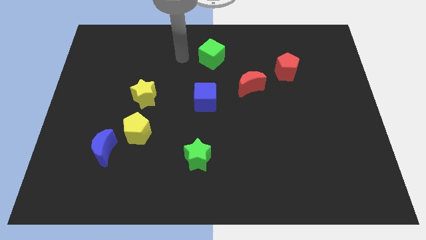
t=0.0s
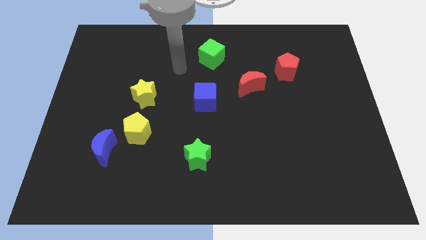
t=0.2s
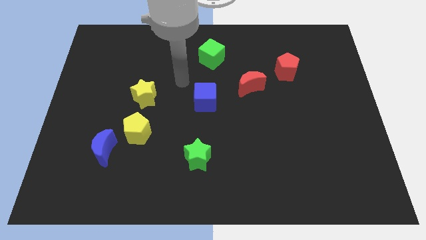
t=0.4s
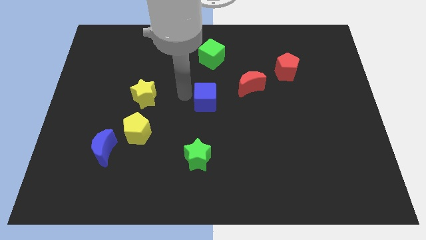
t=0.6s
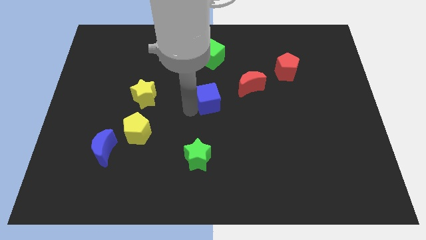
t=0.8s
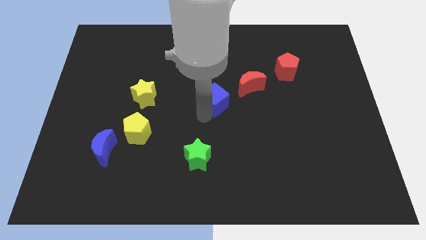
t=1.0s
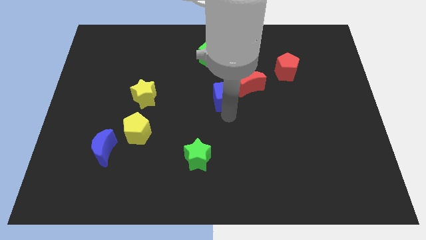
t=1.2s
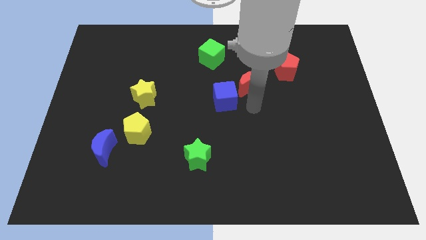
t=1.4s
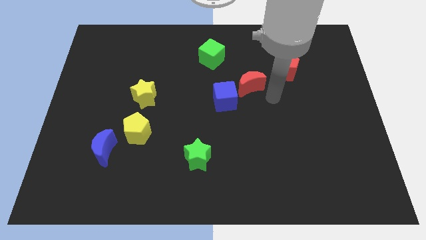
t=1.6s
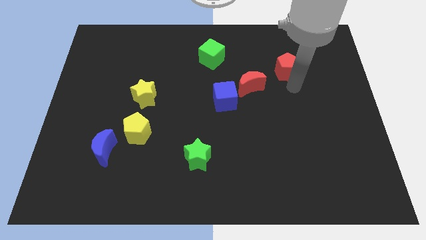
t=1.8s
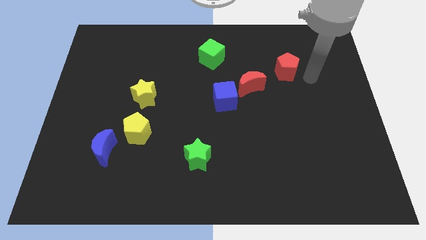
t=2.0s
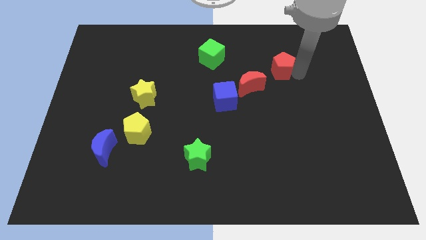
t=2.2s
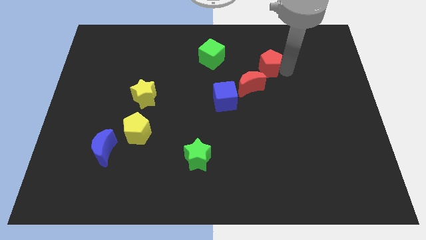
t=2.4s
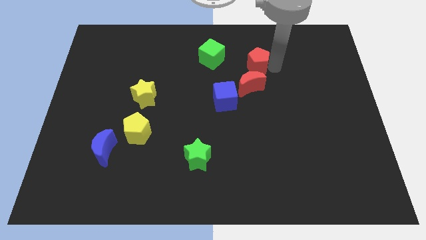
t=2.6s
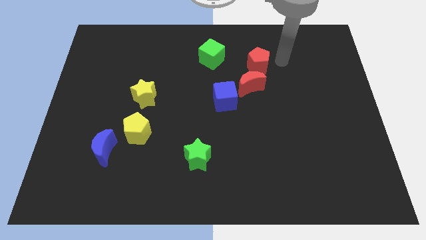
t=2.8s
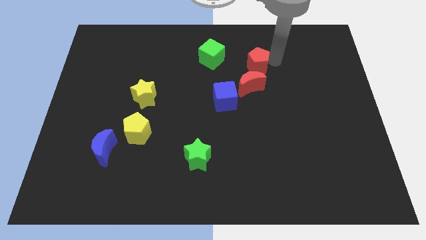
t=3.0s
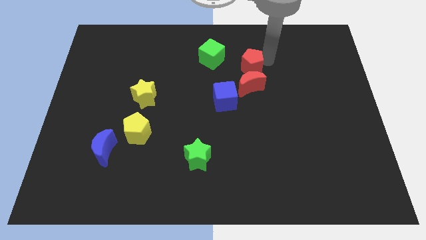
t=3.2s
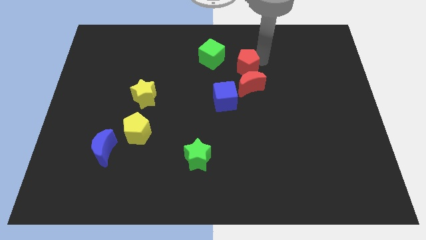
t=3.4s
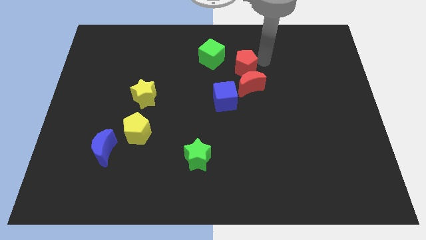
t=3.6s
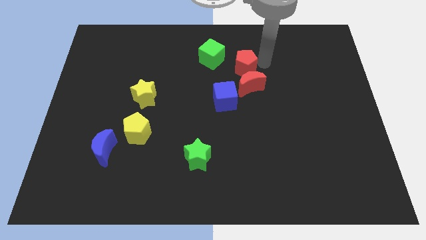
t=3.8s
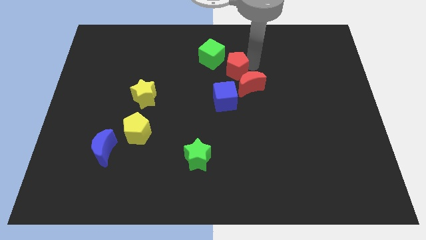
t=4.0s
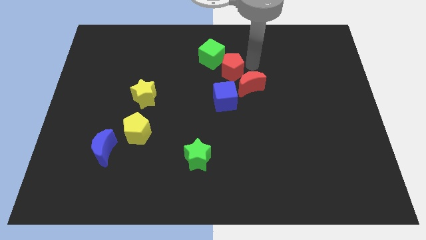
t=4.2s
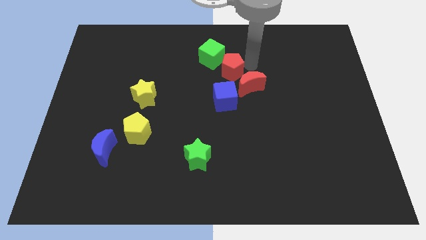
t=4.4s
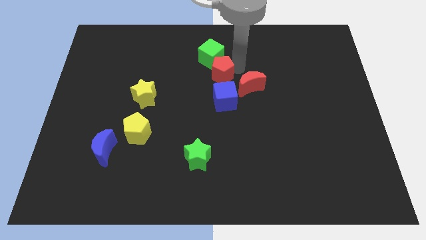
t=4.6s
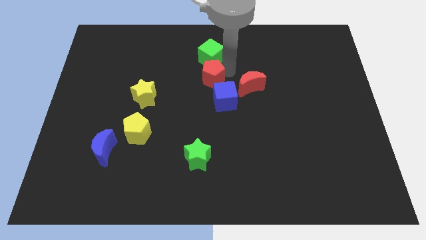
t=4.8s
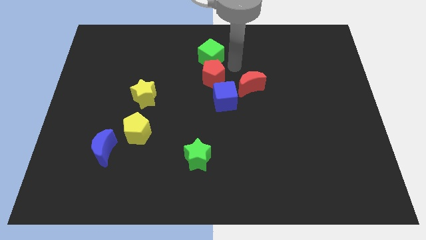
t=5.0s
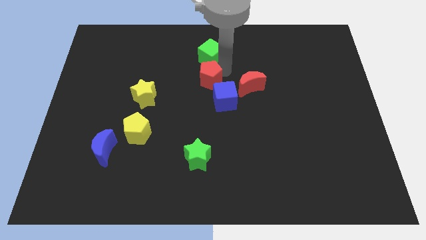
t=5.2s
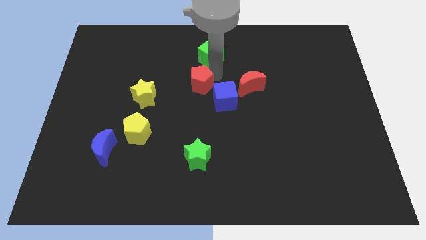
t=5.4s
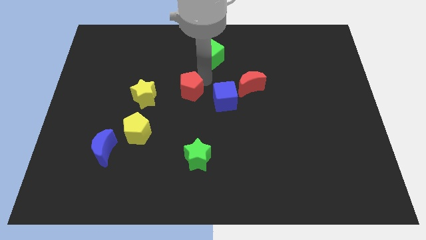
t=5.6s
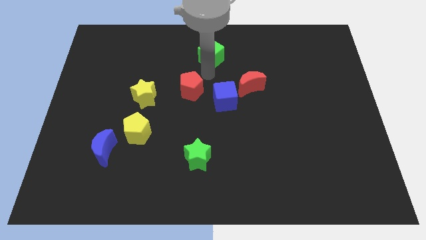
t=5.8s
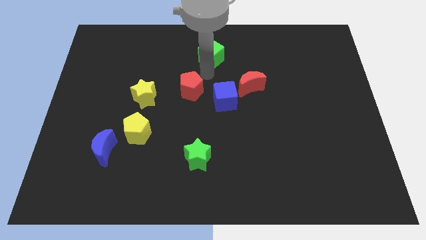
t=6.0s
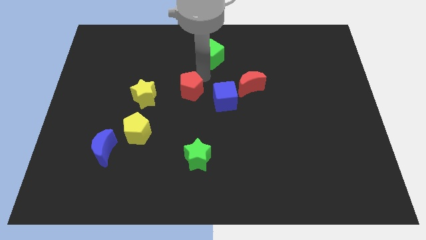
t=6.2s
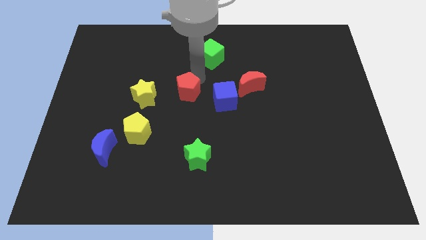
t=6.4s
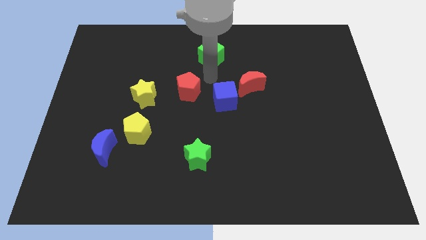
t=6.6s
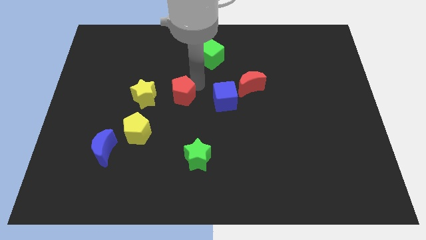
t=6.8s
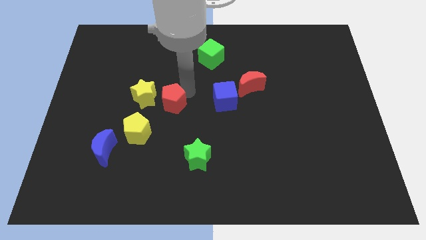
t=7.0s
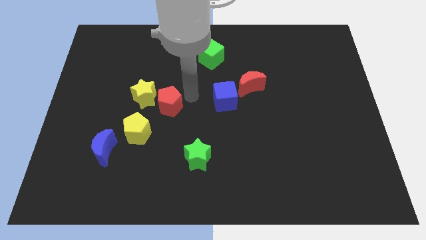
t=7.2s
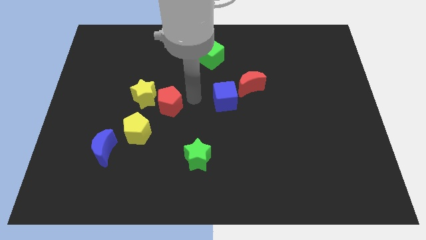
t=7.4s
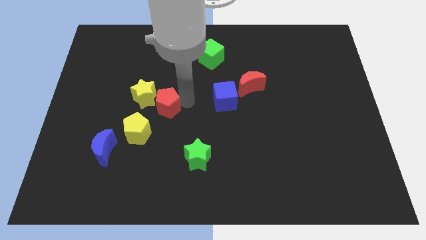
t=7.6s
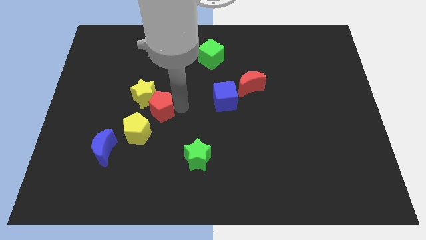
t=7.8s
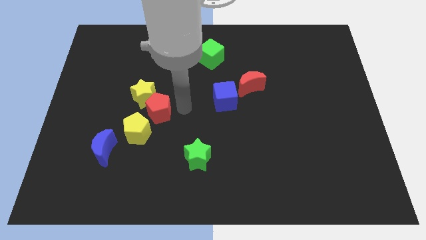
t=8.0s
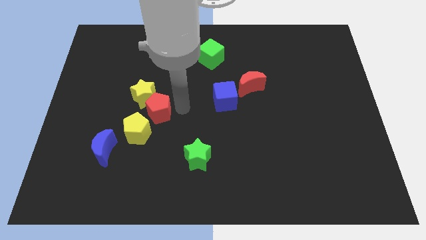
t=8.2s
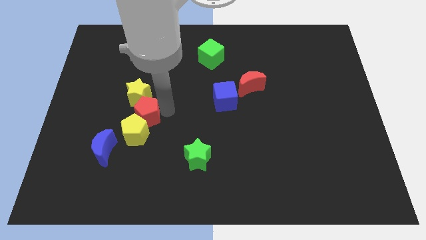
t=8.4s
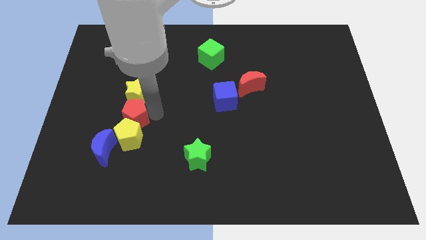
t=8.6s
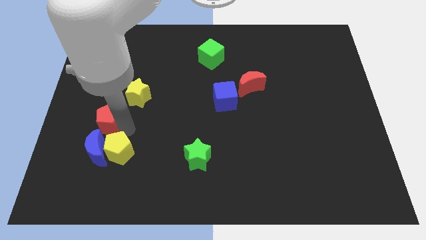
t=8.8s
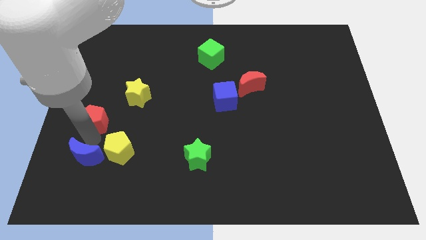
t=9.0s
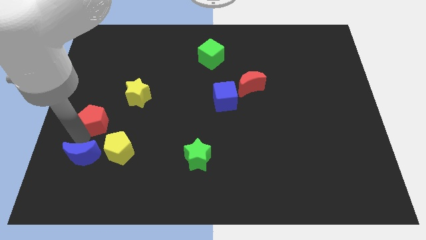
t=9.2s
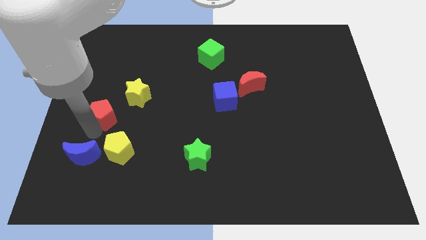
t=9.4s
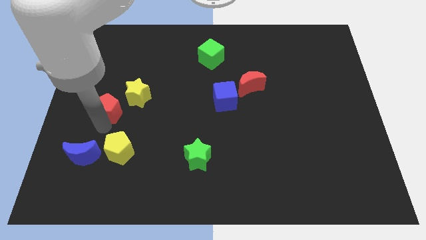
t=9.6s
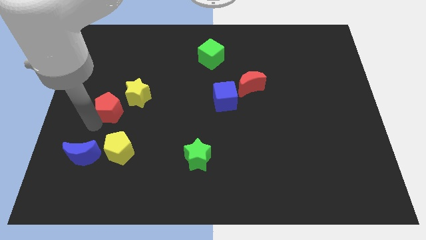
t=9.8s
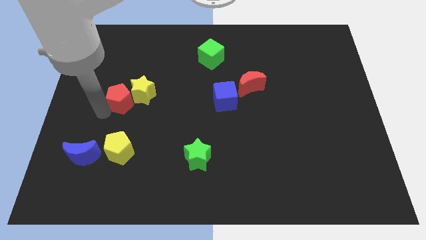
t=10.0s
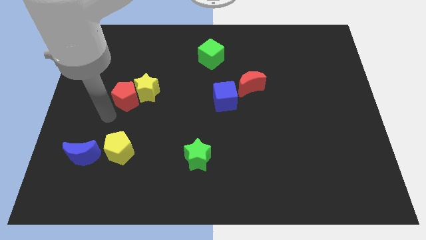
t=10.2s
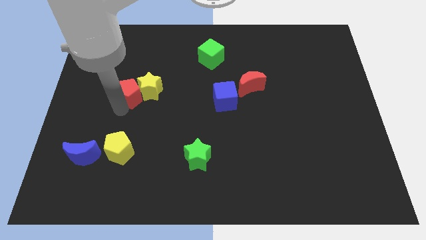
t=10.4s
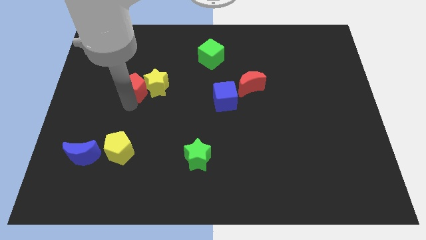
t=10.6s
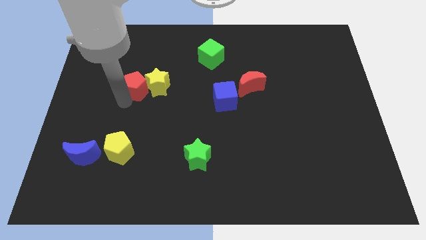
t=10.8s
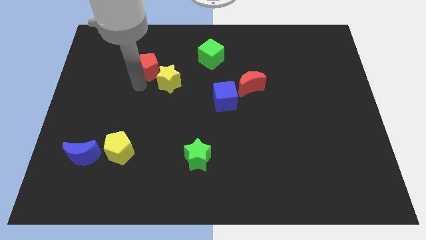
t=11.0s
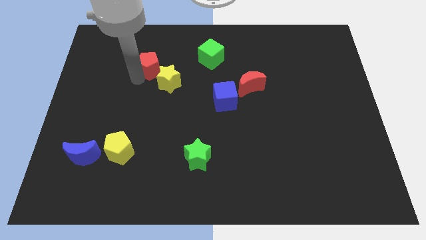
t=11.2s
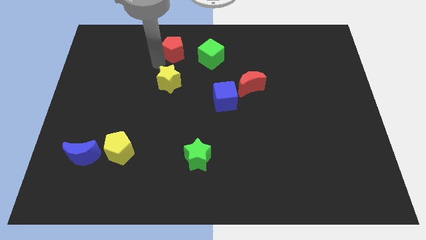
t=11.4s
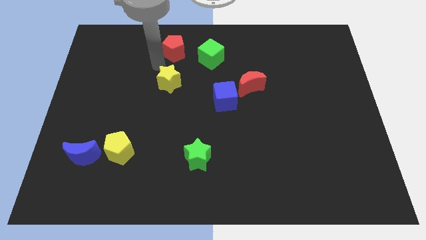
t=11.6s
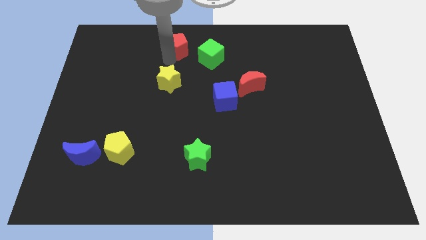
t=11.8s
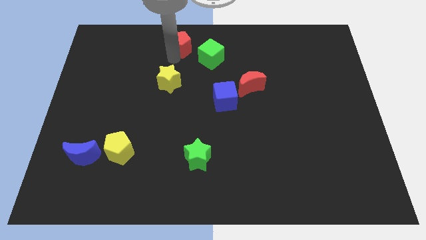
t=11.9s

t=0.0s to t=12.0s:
push the red pentagon to the towards your base
